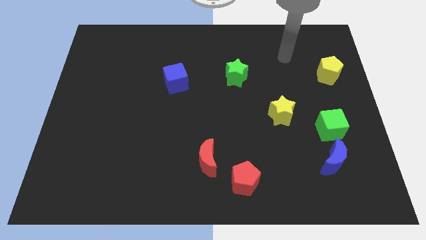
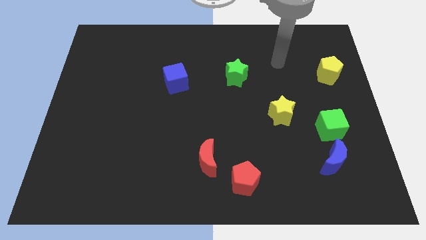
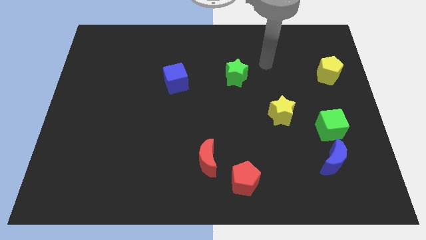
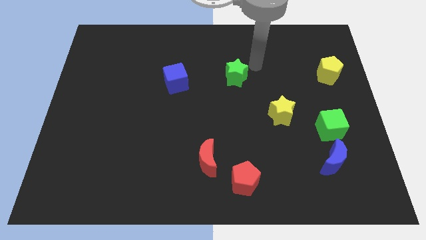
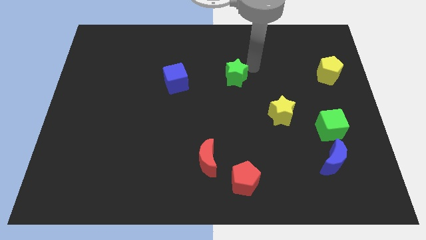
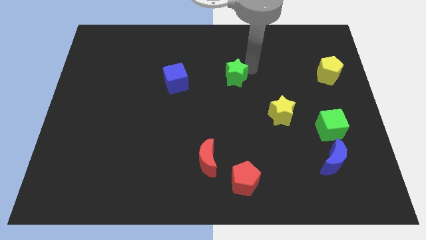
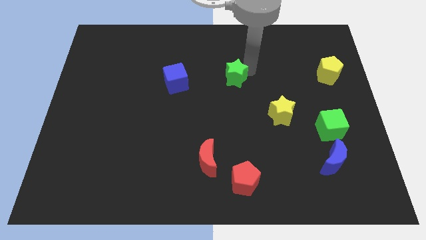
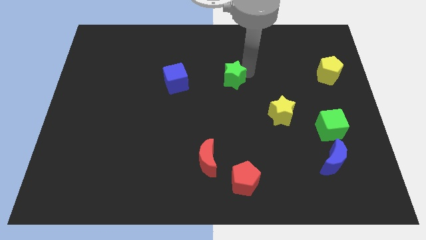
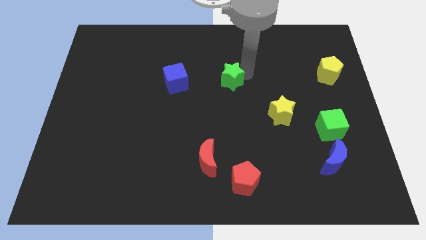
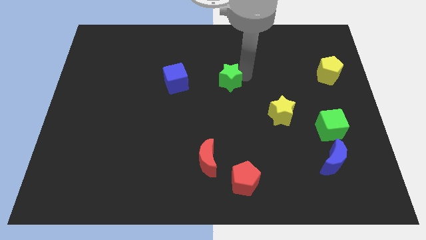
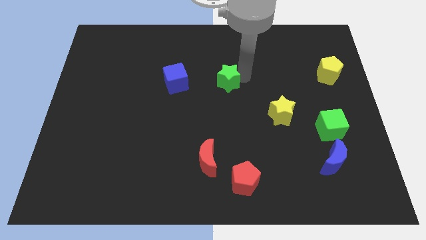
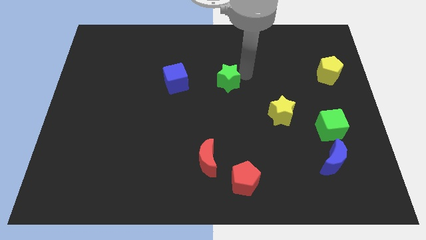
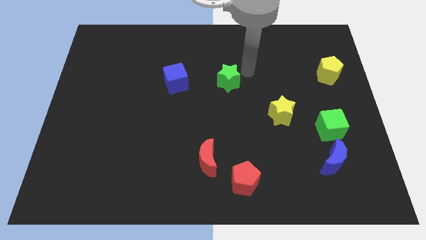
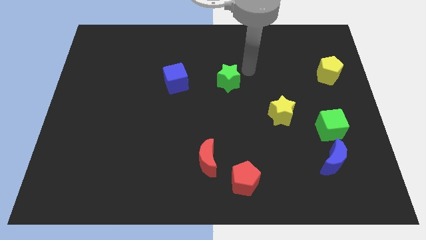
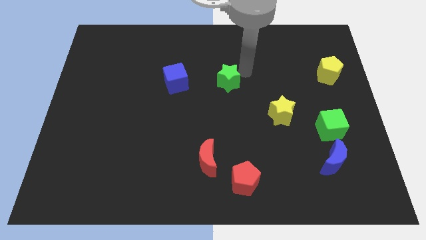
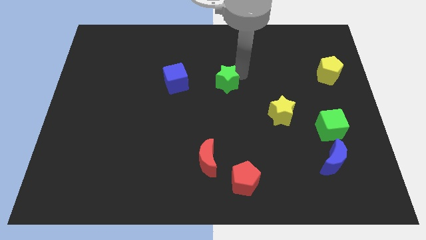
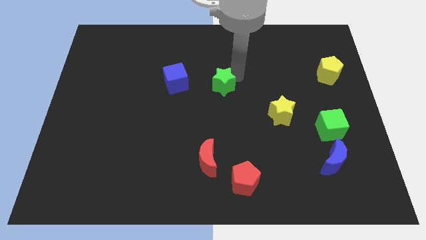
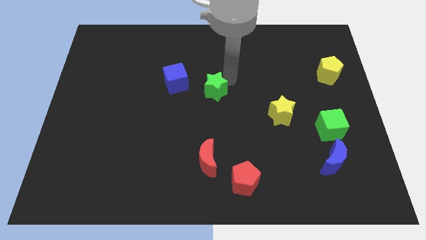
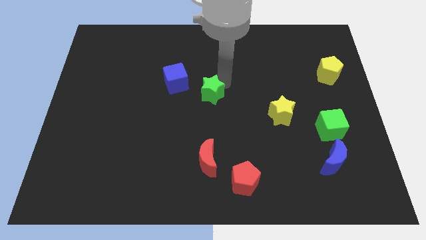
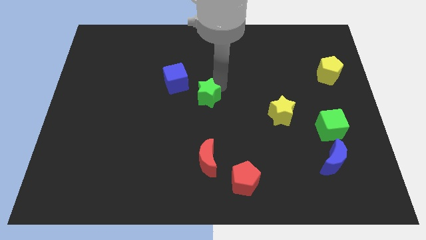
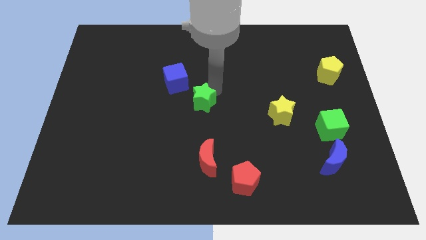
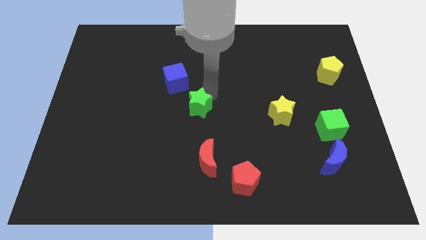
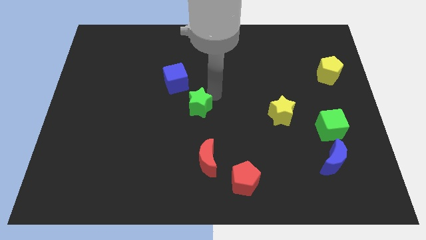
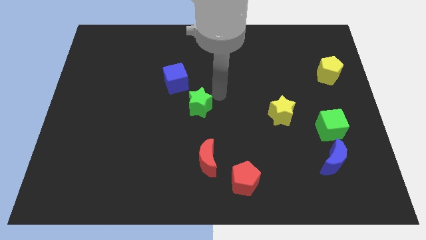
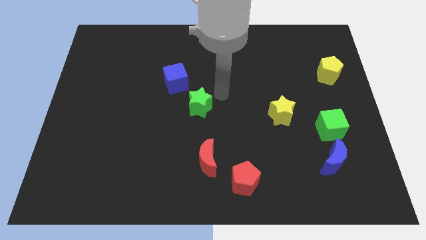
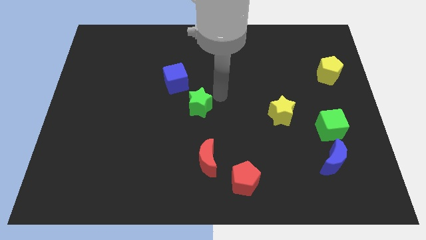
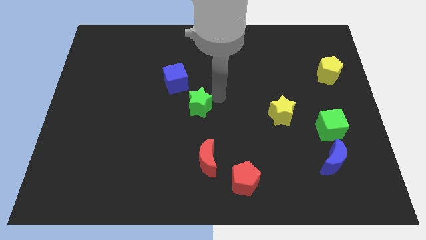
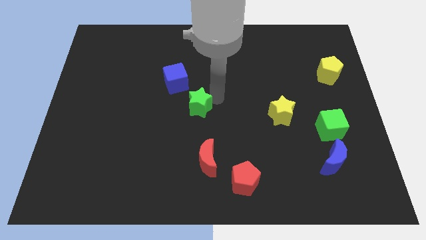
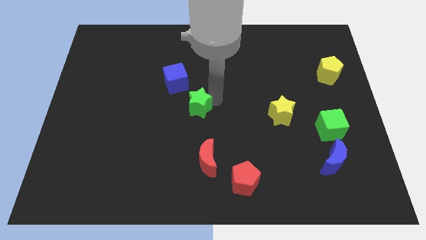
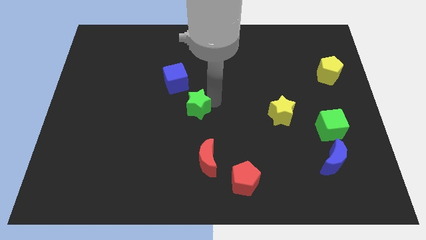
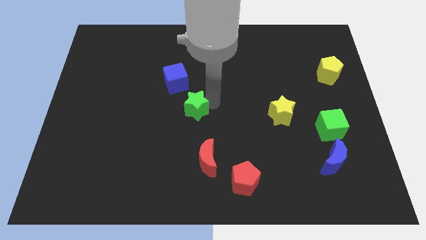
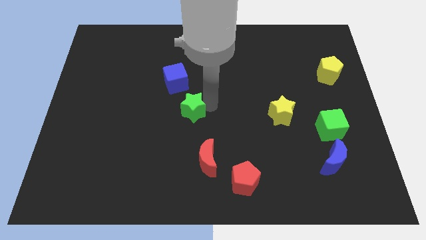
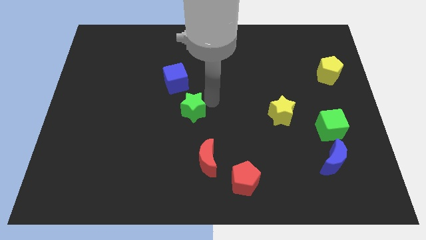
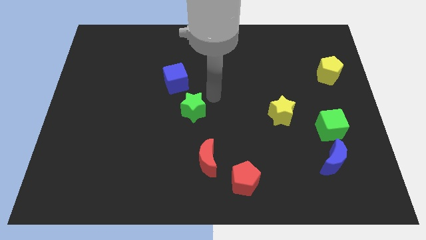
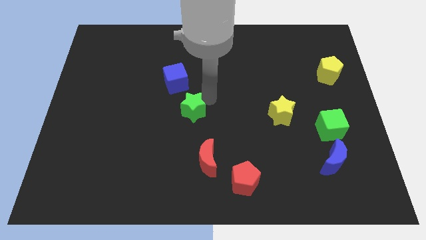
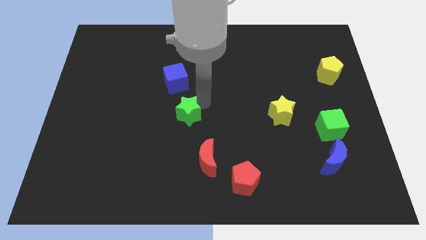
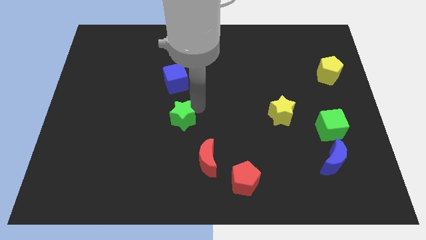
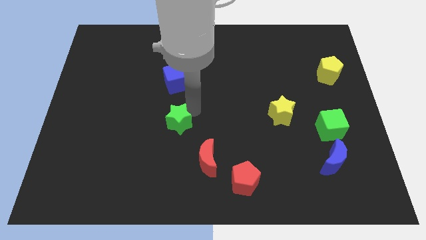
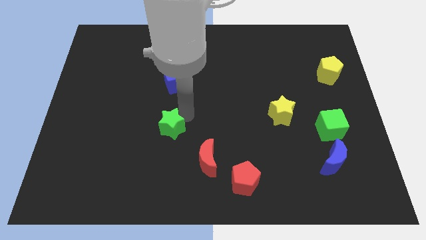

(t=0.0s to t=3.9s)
slide the green star downwards and left diagonally

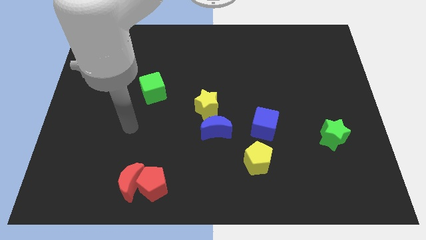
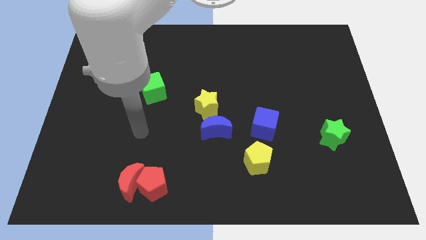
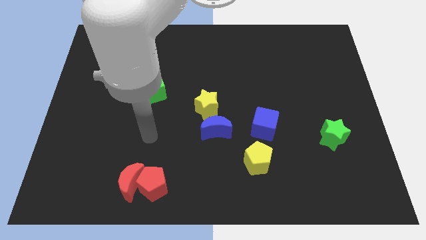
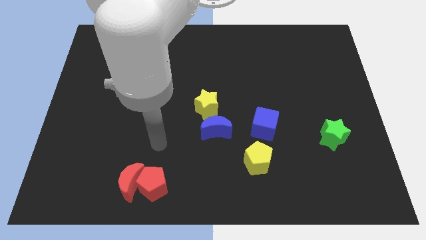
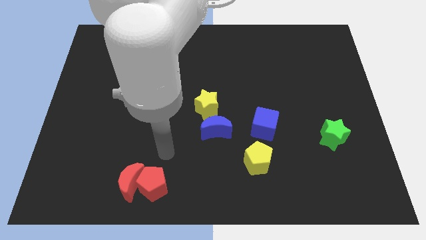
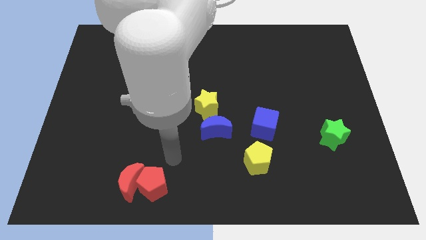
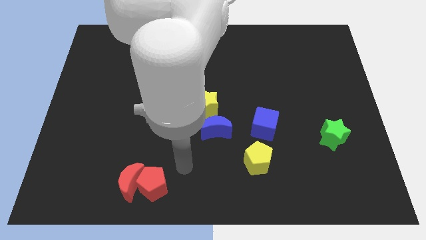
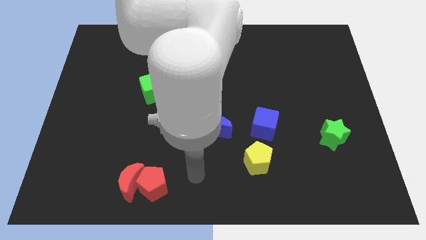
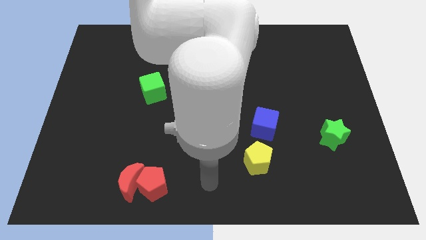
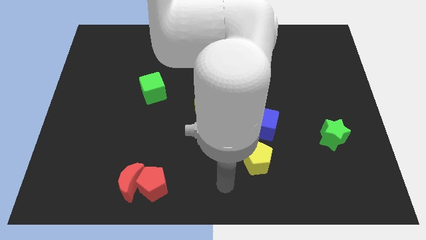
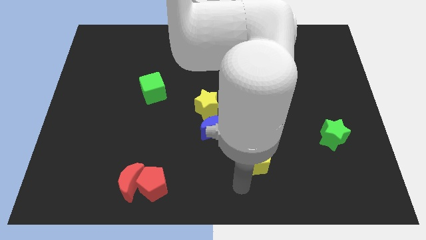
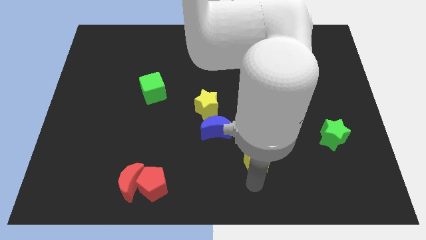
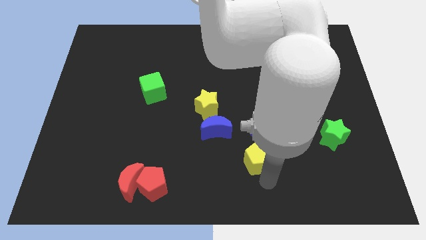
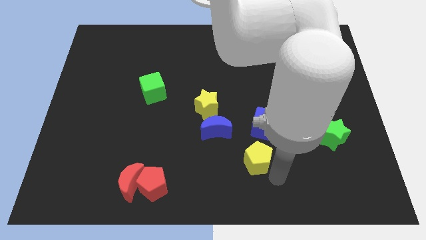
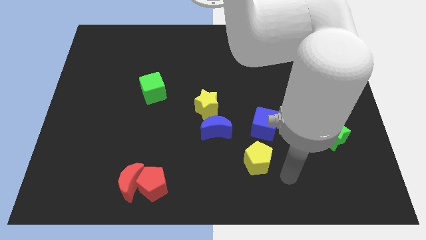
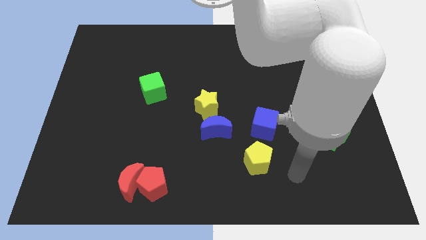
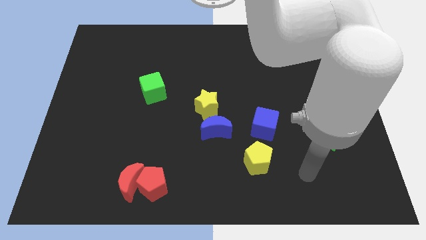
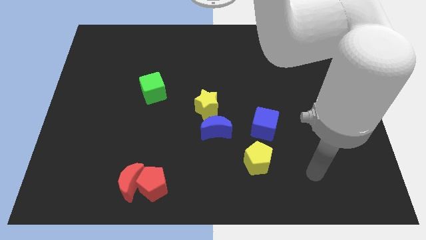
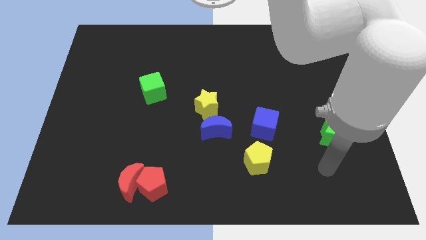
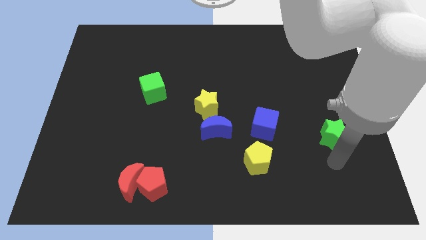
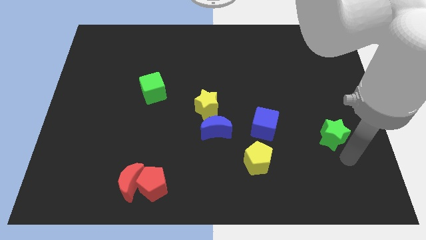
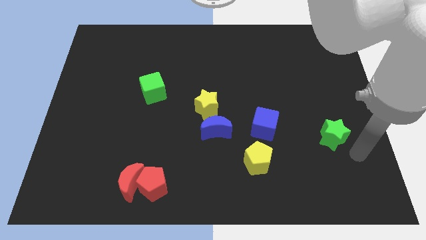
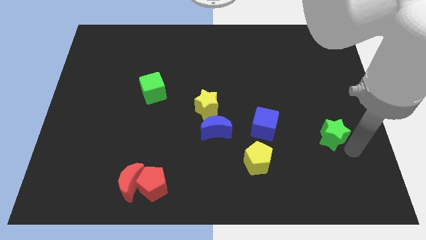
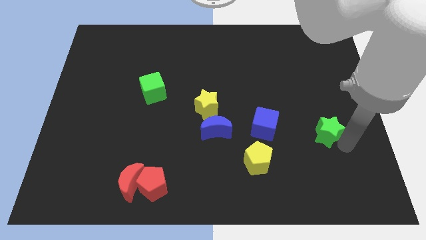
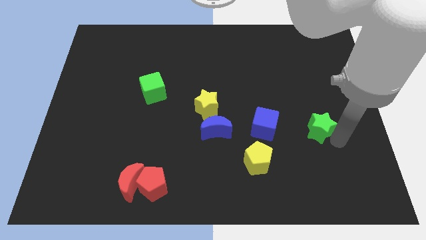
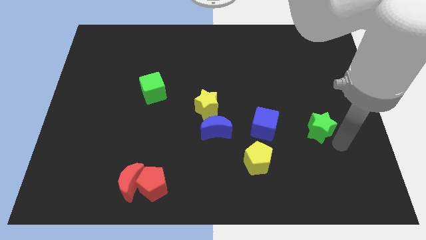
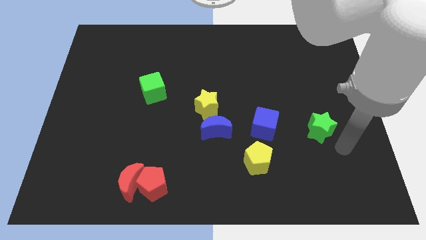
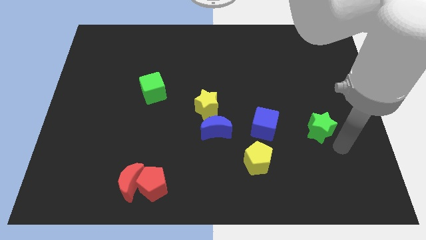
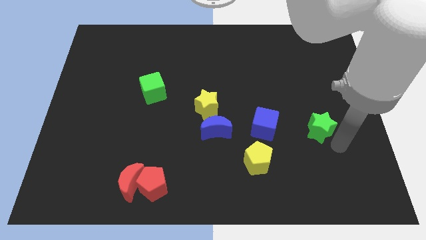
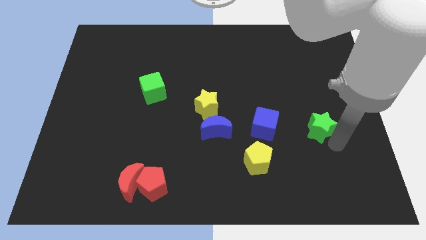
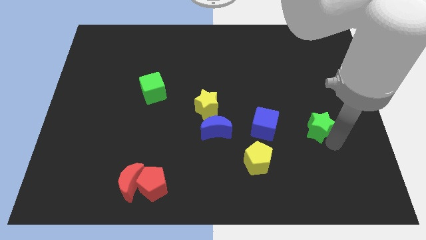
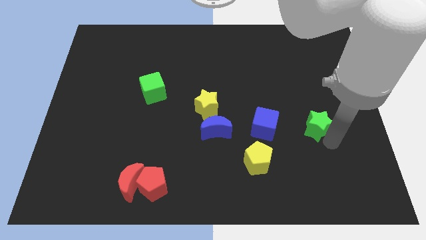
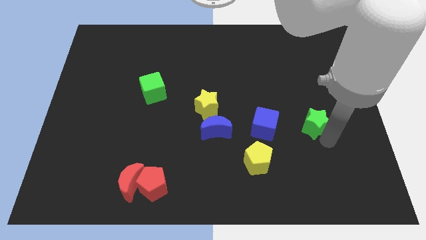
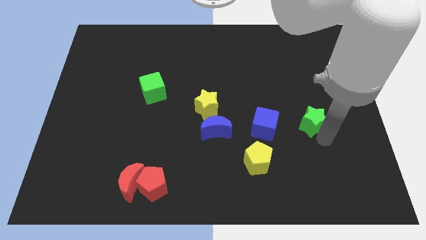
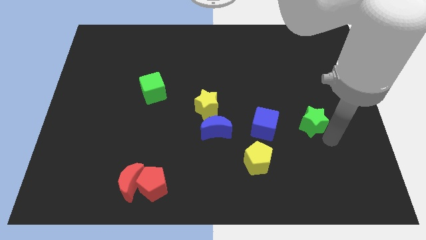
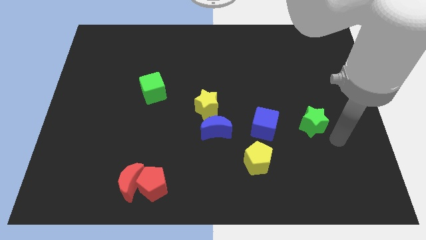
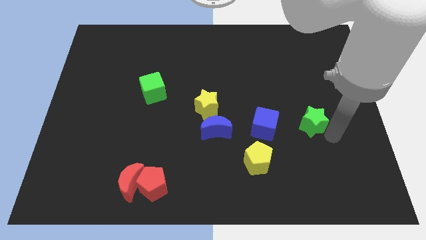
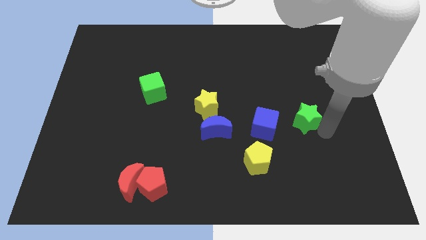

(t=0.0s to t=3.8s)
move the green star somewhat upwards and to the left

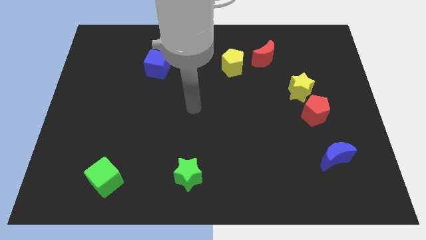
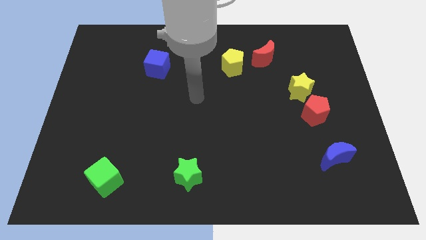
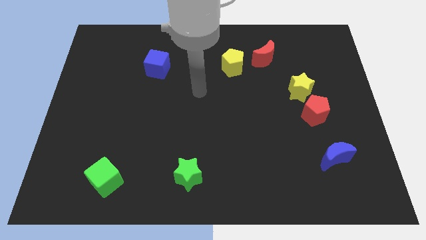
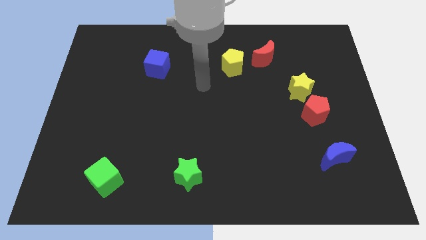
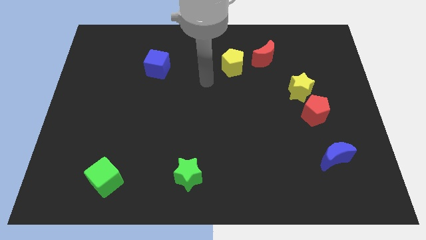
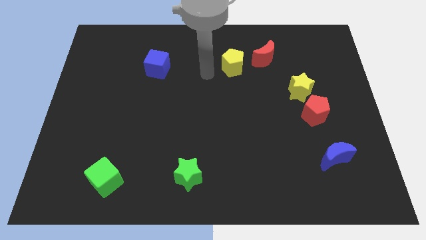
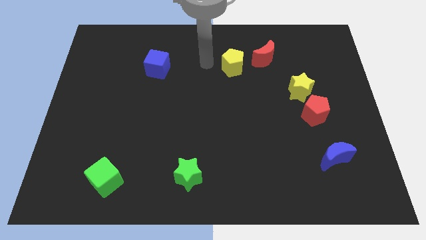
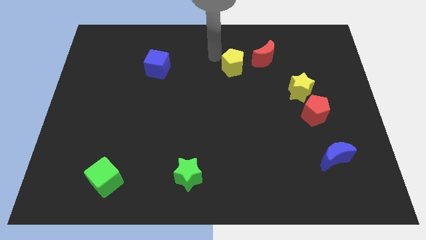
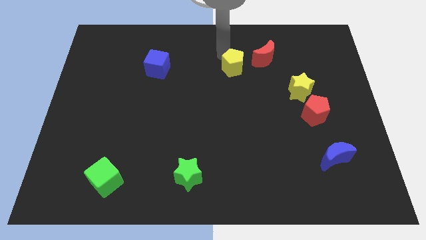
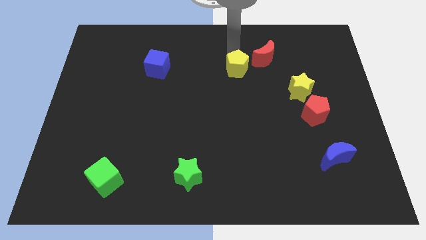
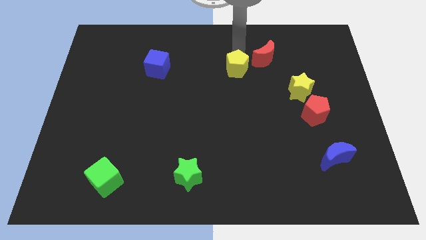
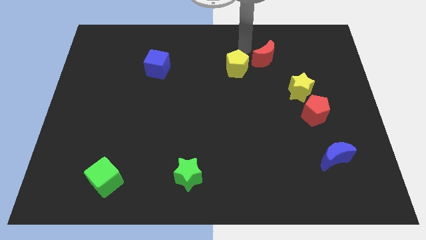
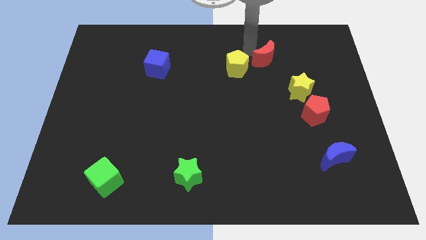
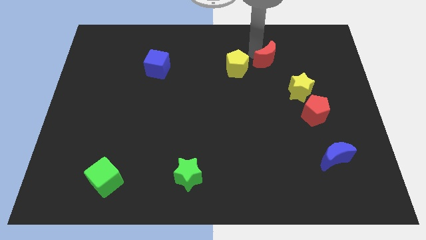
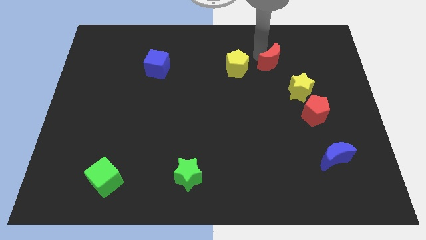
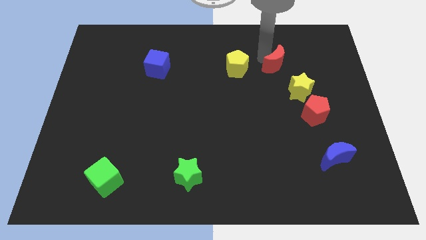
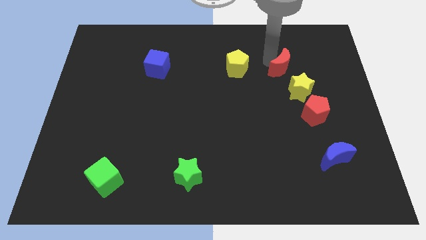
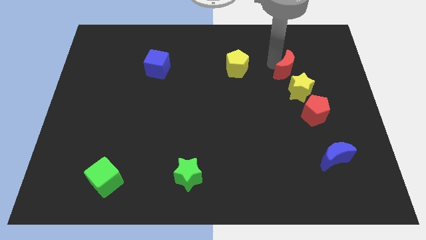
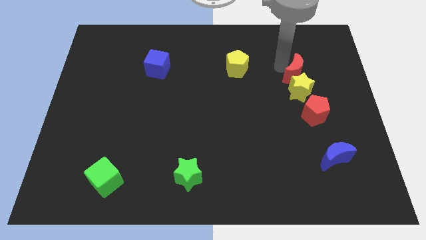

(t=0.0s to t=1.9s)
push the red moon downwards and to the right diagonally slightly
